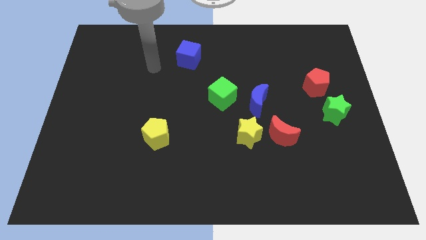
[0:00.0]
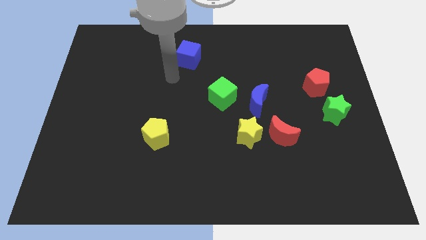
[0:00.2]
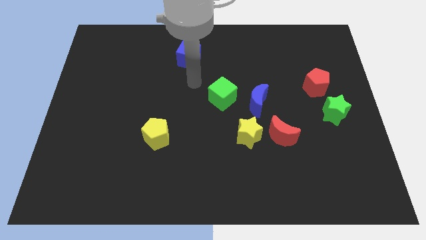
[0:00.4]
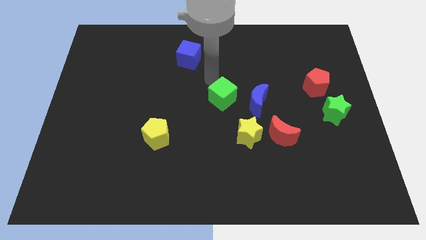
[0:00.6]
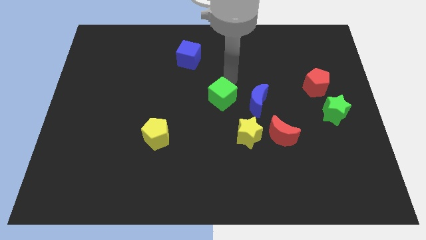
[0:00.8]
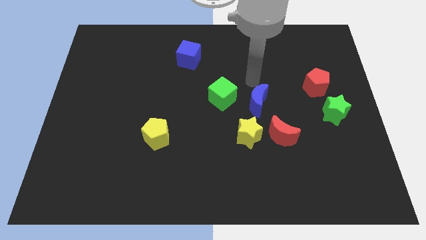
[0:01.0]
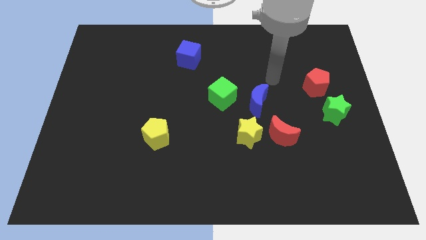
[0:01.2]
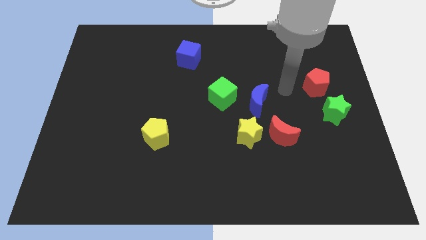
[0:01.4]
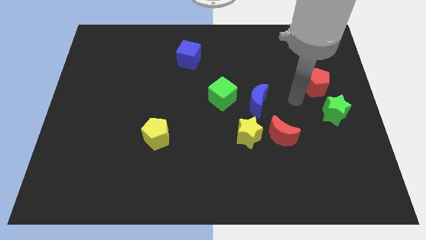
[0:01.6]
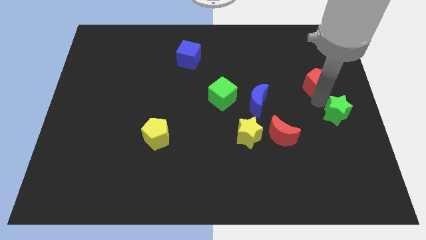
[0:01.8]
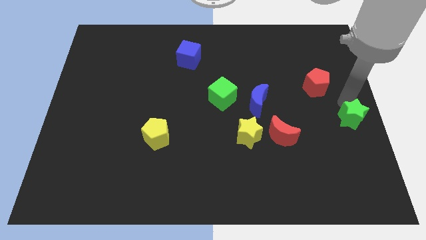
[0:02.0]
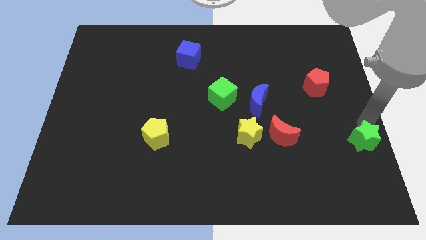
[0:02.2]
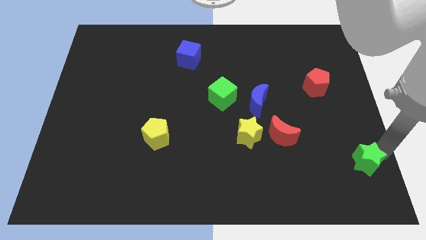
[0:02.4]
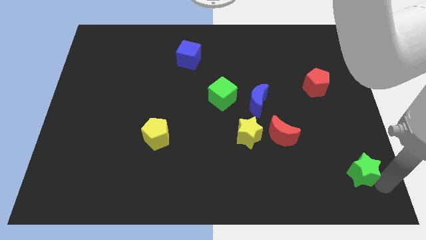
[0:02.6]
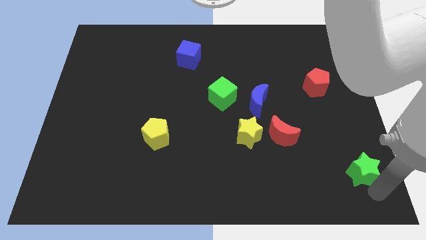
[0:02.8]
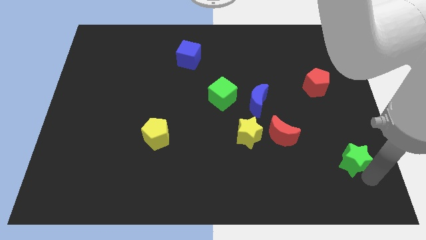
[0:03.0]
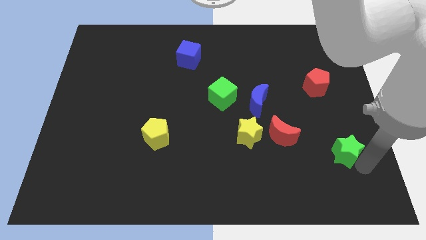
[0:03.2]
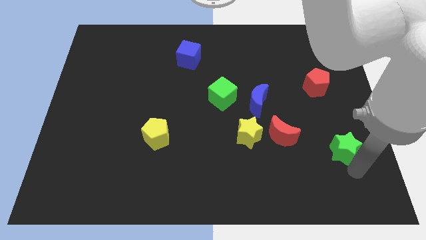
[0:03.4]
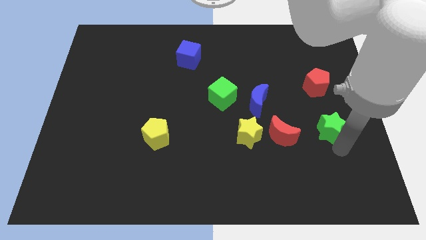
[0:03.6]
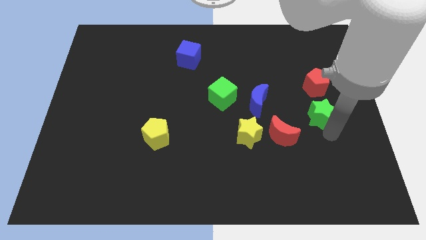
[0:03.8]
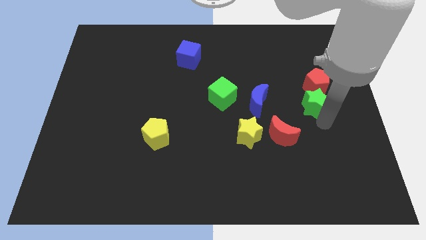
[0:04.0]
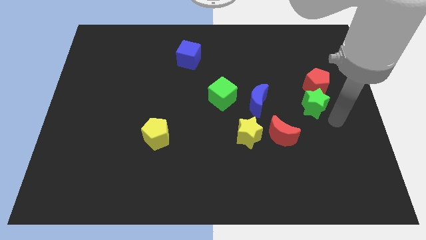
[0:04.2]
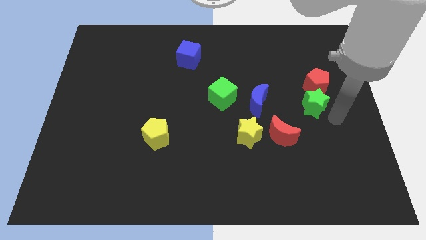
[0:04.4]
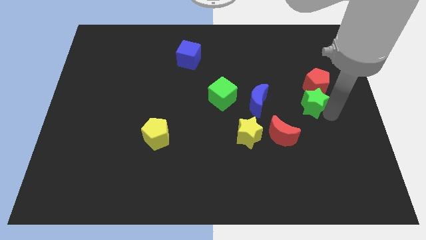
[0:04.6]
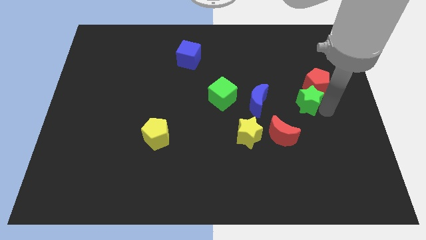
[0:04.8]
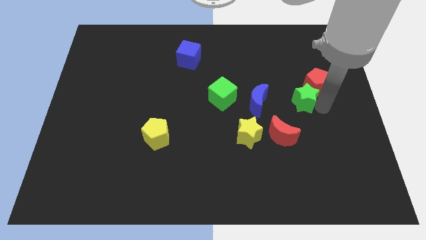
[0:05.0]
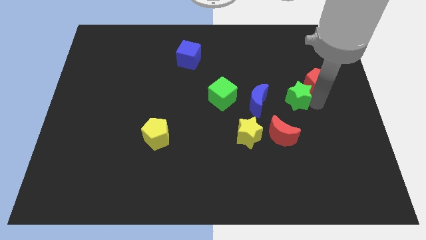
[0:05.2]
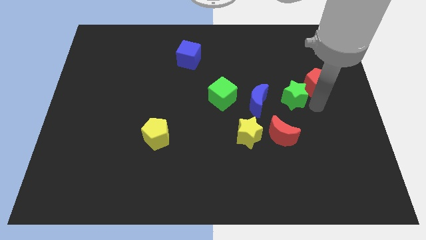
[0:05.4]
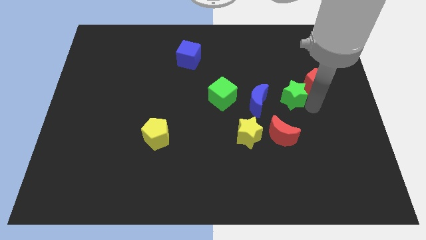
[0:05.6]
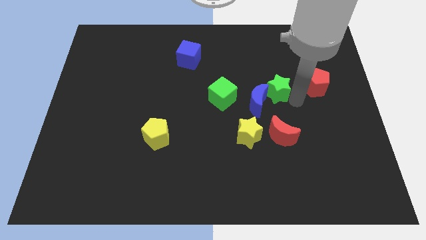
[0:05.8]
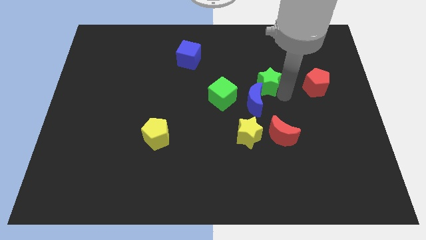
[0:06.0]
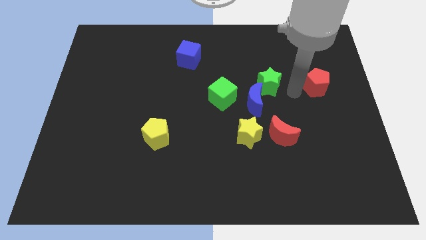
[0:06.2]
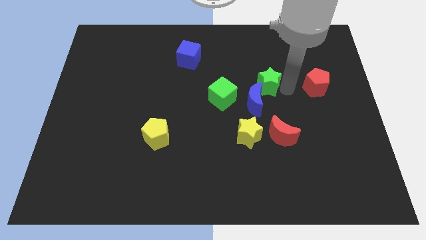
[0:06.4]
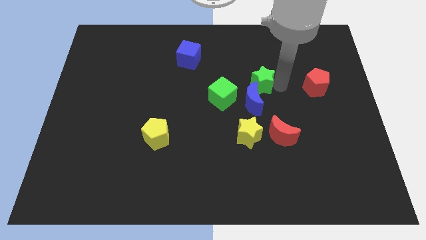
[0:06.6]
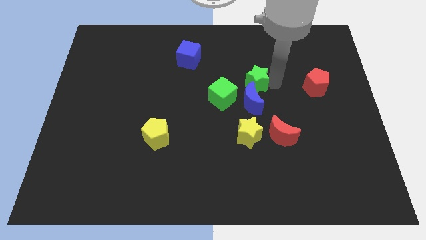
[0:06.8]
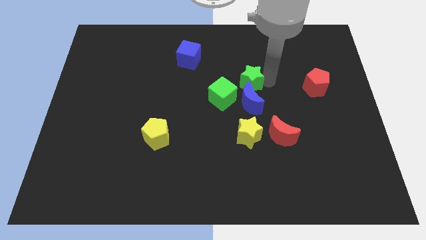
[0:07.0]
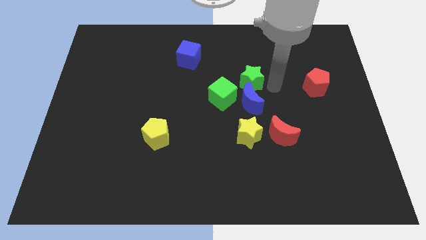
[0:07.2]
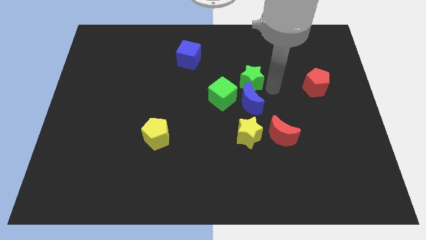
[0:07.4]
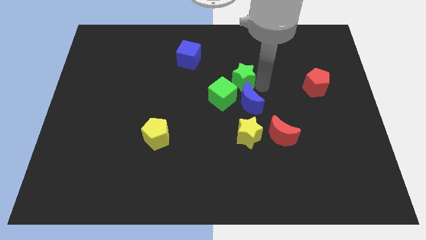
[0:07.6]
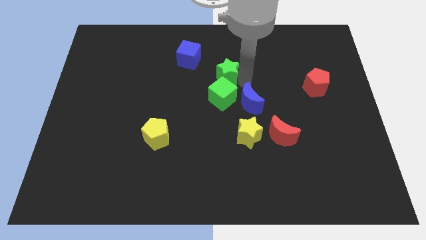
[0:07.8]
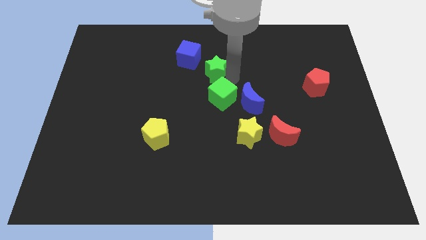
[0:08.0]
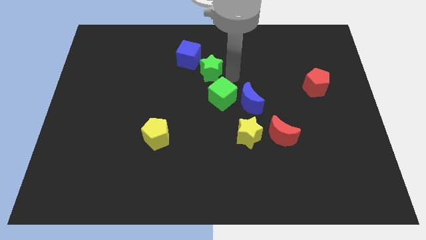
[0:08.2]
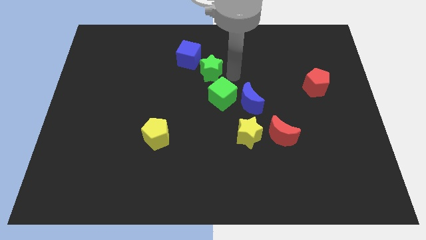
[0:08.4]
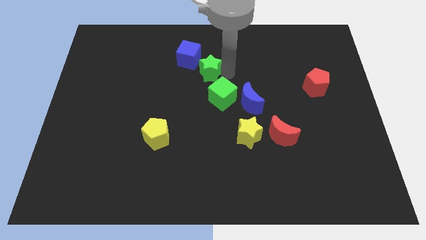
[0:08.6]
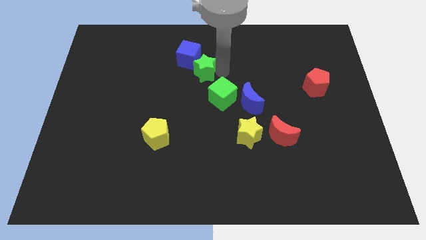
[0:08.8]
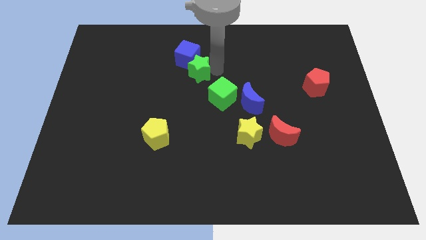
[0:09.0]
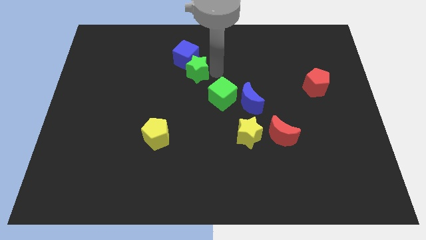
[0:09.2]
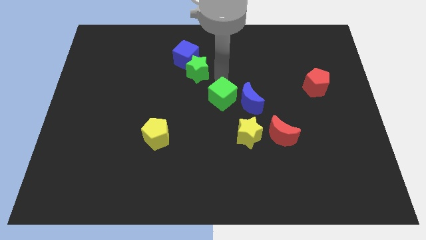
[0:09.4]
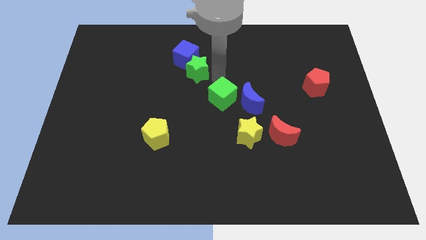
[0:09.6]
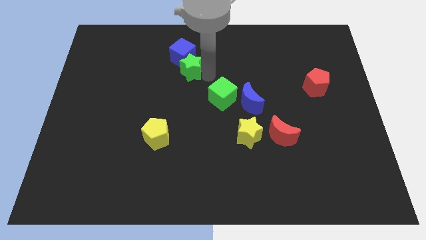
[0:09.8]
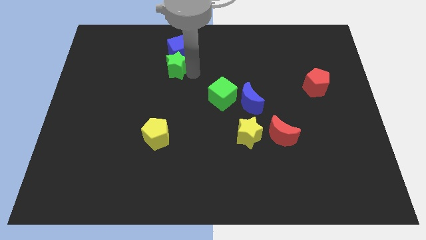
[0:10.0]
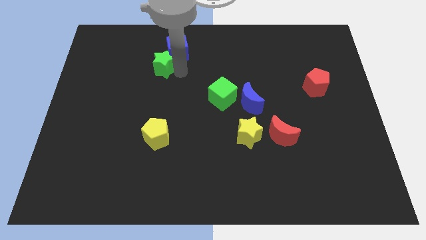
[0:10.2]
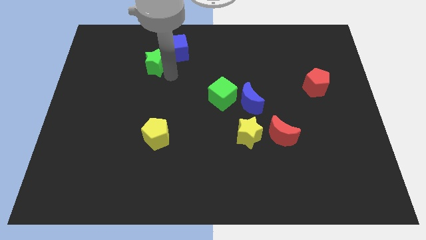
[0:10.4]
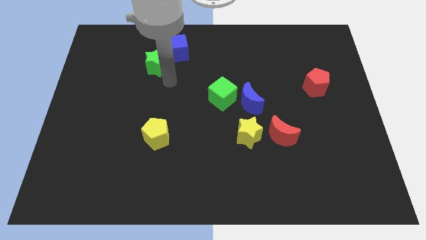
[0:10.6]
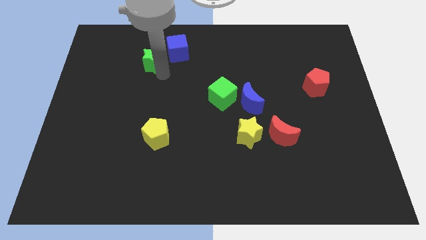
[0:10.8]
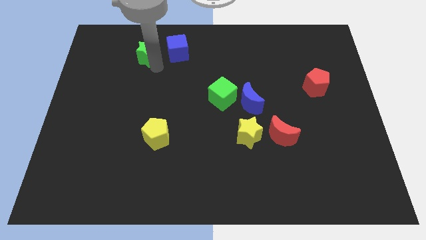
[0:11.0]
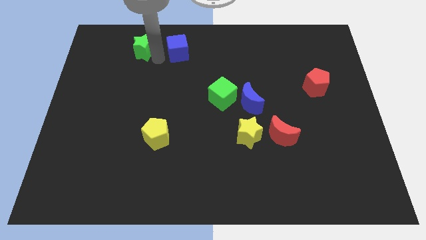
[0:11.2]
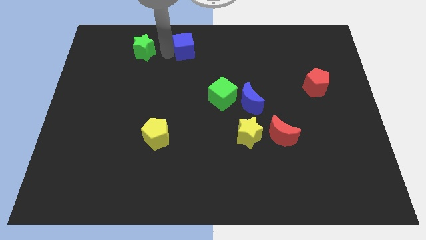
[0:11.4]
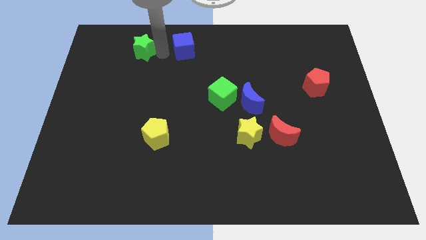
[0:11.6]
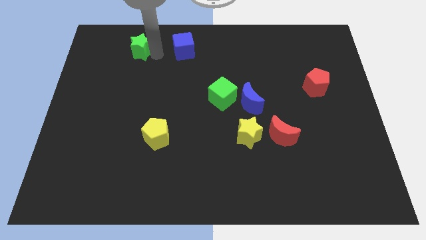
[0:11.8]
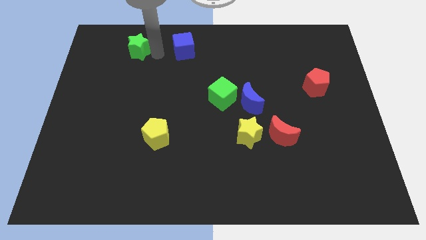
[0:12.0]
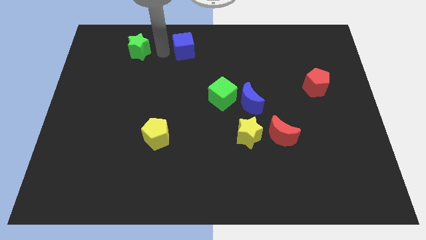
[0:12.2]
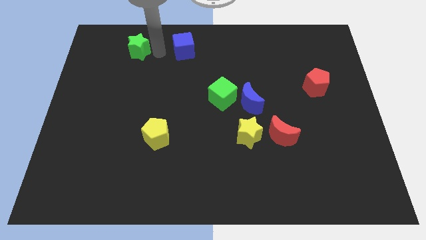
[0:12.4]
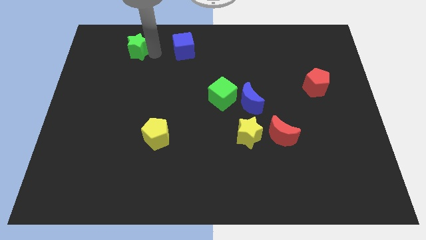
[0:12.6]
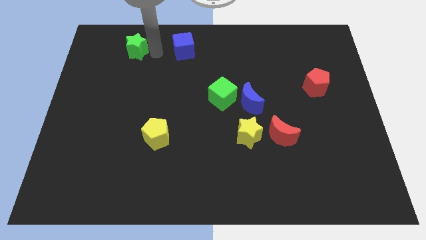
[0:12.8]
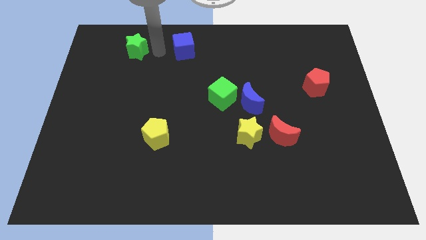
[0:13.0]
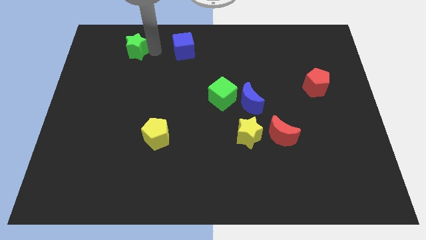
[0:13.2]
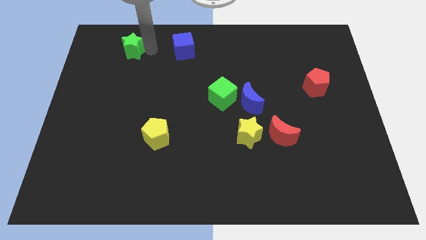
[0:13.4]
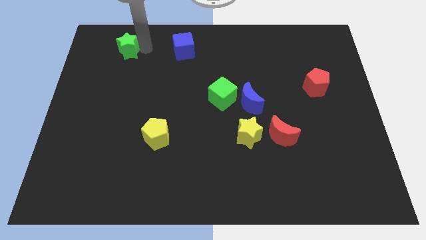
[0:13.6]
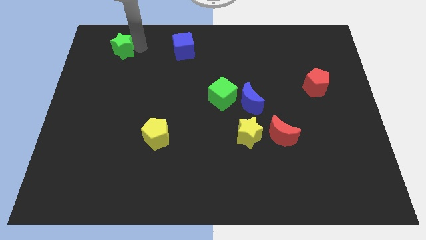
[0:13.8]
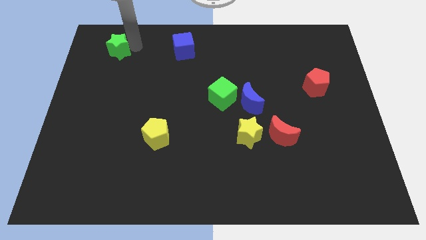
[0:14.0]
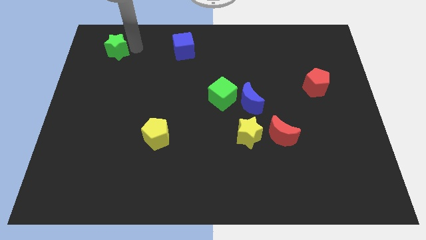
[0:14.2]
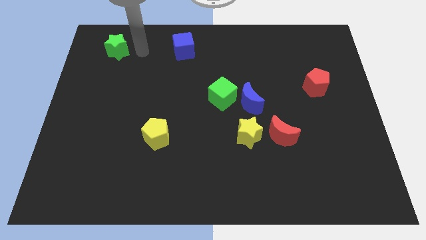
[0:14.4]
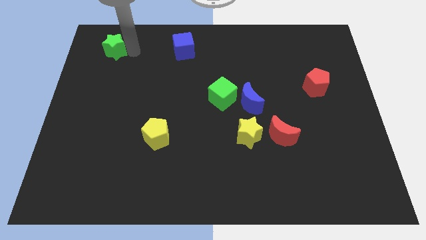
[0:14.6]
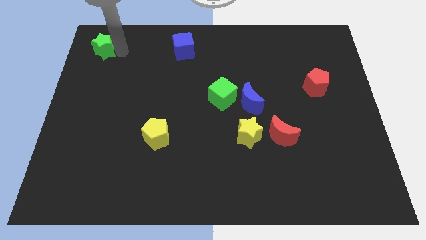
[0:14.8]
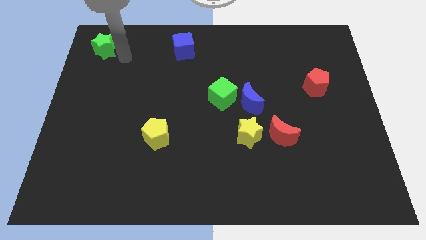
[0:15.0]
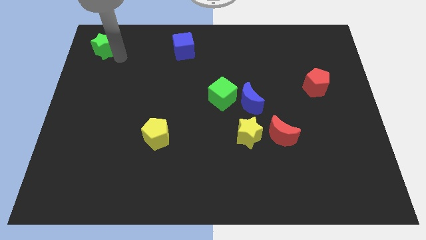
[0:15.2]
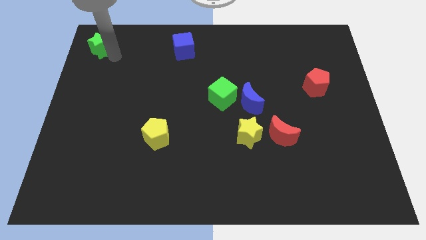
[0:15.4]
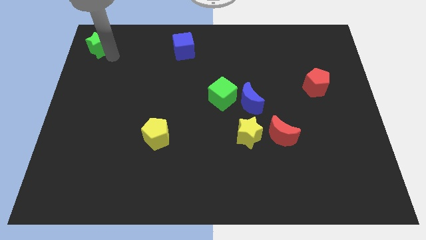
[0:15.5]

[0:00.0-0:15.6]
push the green star to the upper left corner
